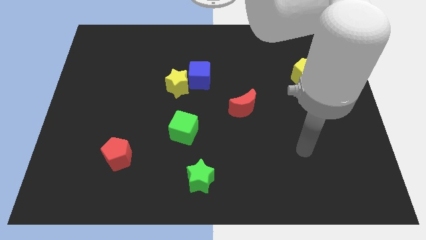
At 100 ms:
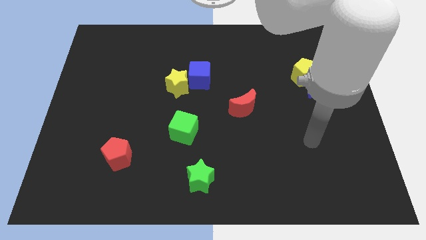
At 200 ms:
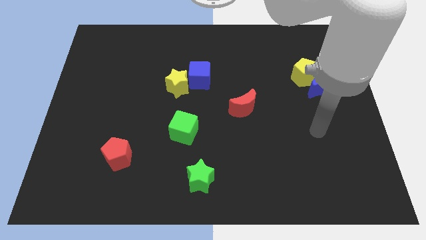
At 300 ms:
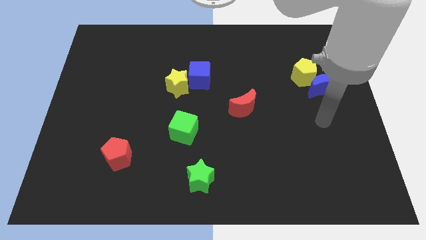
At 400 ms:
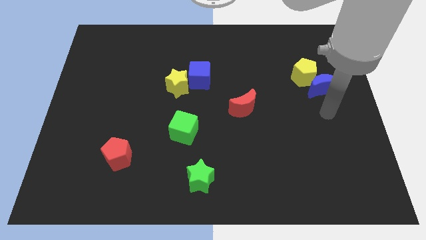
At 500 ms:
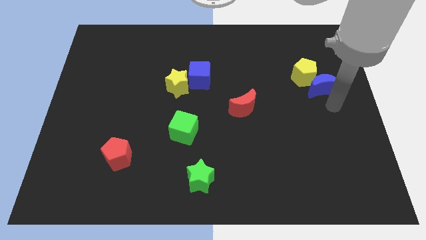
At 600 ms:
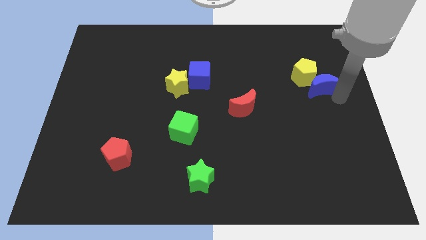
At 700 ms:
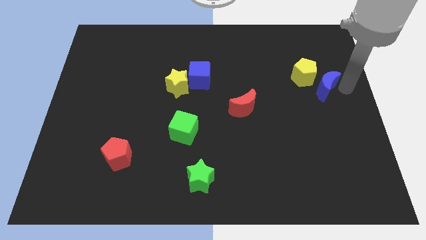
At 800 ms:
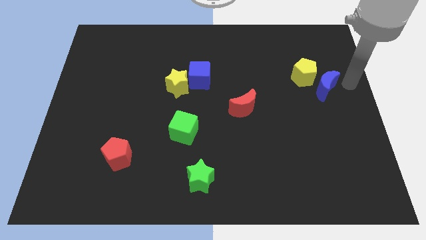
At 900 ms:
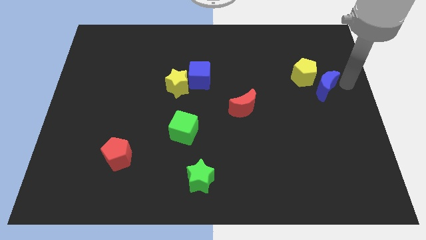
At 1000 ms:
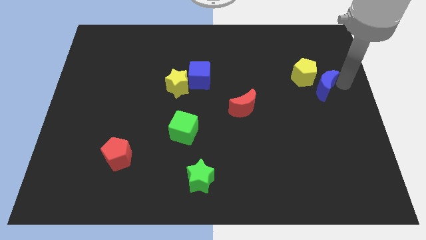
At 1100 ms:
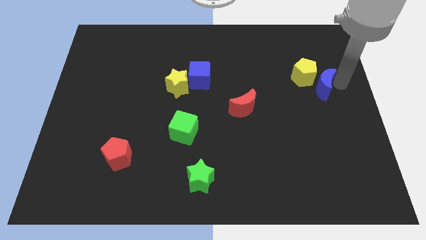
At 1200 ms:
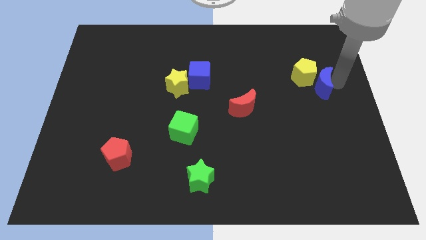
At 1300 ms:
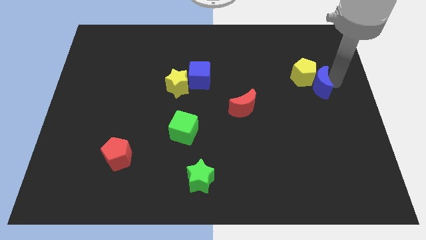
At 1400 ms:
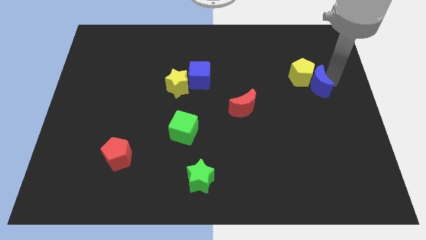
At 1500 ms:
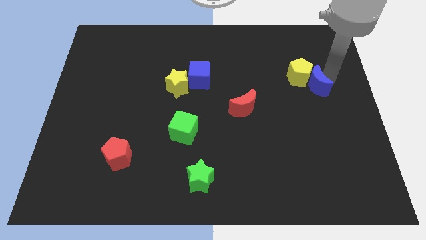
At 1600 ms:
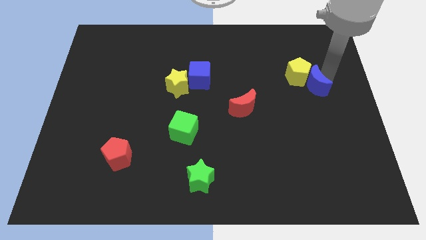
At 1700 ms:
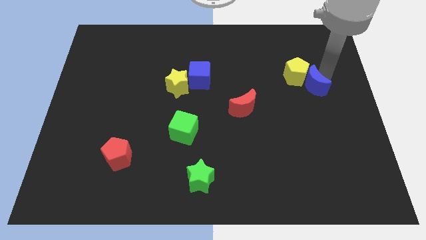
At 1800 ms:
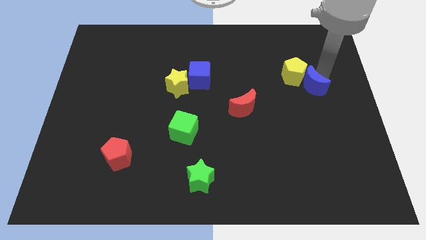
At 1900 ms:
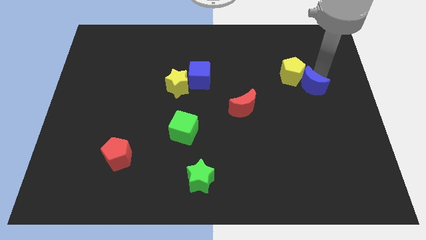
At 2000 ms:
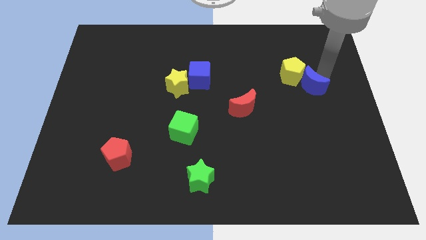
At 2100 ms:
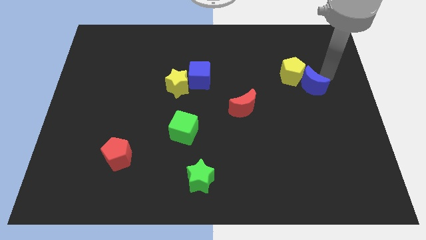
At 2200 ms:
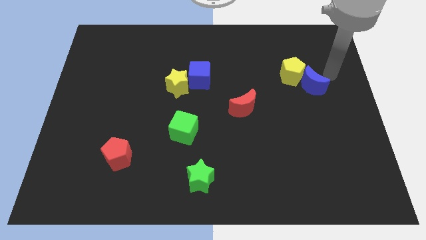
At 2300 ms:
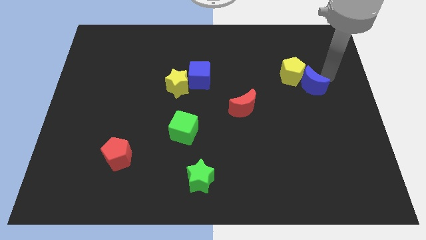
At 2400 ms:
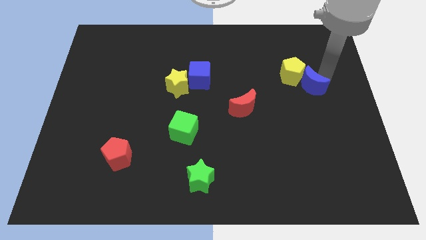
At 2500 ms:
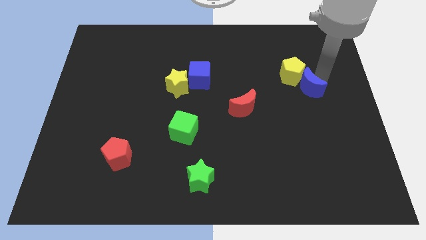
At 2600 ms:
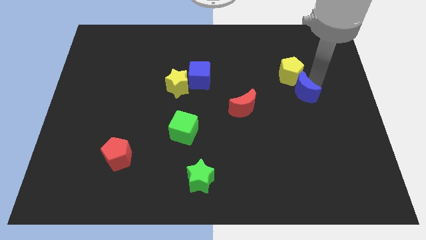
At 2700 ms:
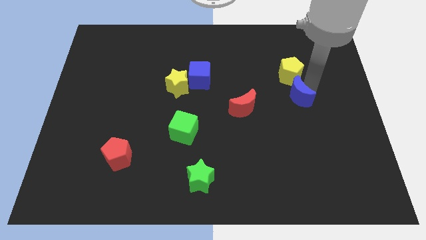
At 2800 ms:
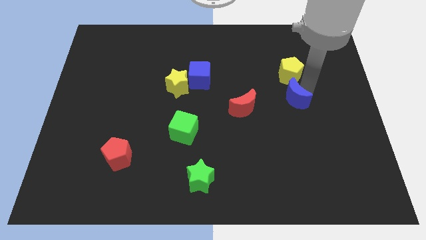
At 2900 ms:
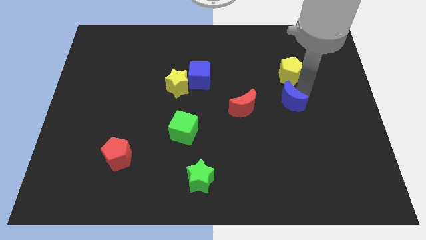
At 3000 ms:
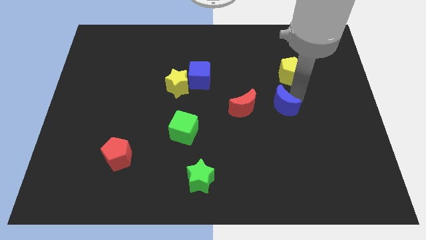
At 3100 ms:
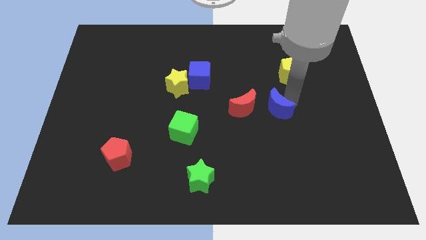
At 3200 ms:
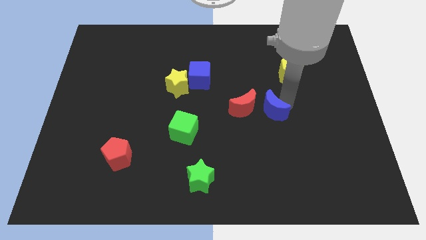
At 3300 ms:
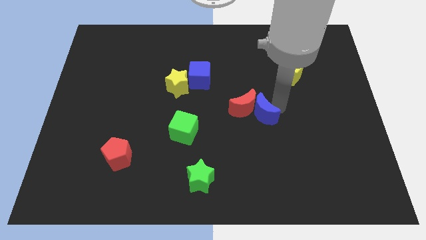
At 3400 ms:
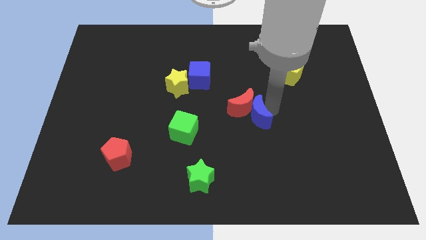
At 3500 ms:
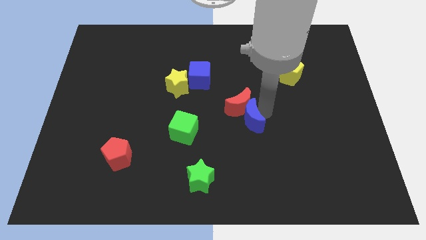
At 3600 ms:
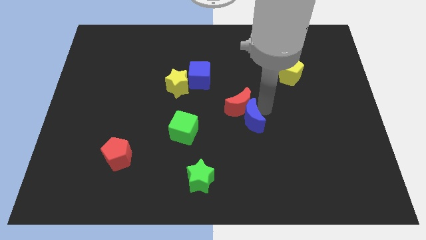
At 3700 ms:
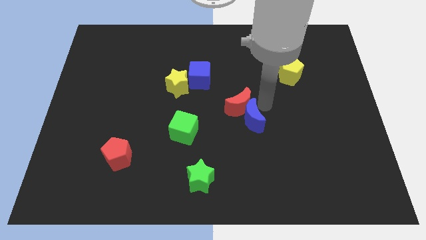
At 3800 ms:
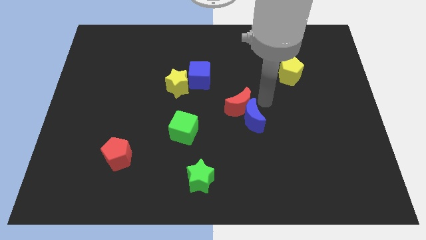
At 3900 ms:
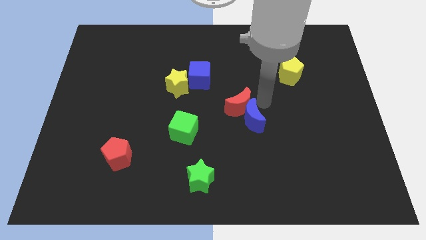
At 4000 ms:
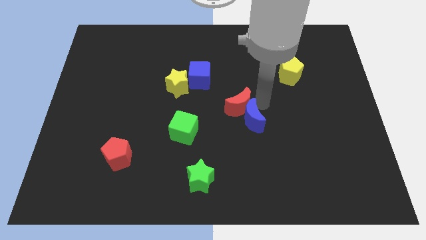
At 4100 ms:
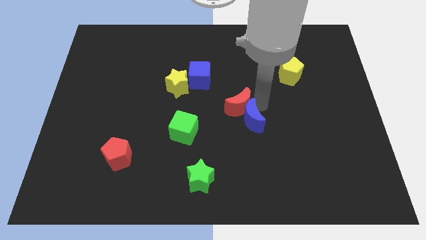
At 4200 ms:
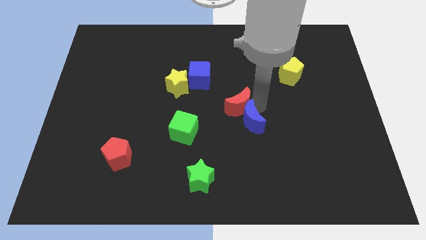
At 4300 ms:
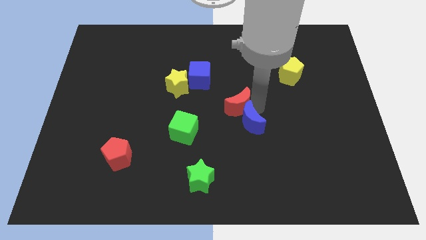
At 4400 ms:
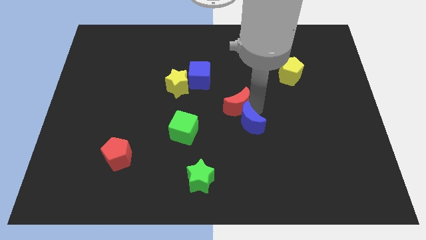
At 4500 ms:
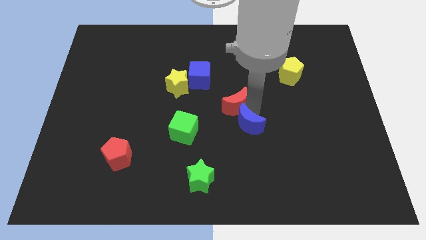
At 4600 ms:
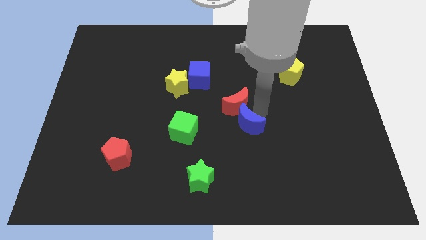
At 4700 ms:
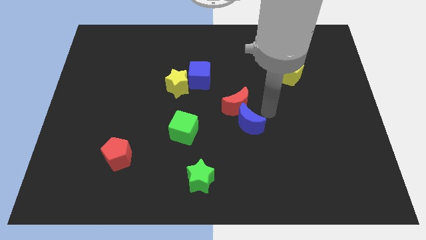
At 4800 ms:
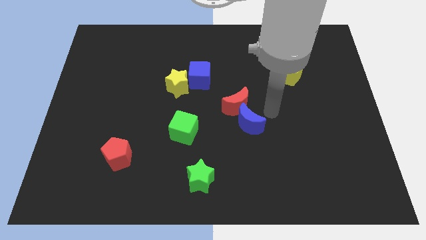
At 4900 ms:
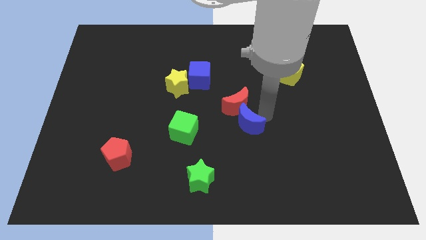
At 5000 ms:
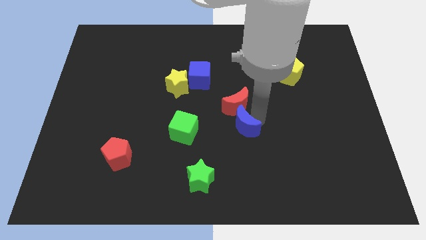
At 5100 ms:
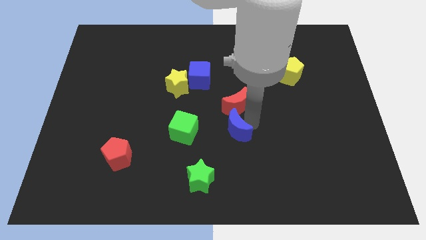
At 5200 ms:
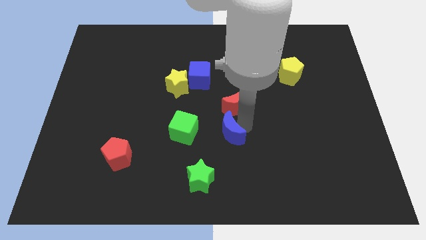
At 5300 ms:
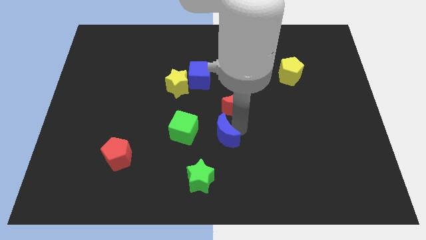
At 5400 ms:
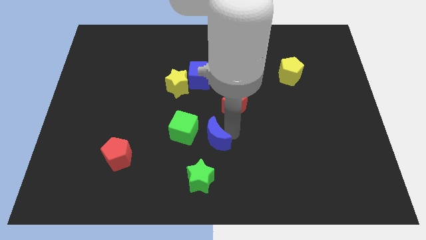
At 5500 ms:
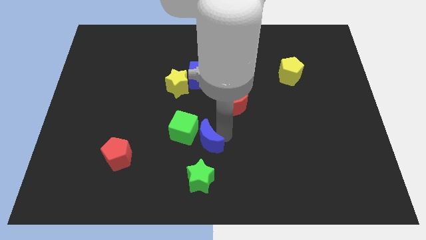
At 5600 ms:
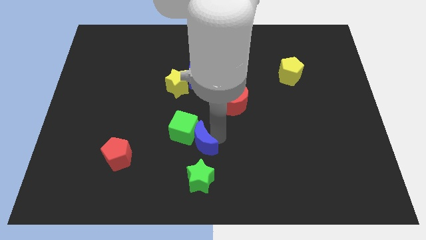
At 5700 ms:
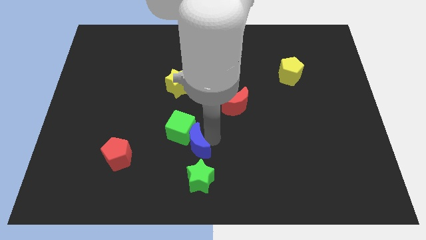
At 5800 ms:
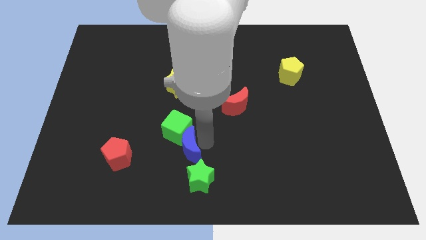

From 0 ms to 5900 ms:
put the blue moon just right of the red pentagon

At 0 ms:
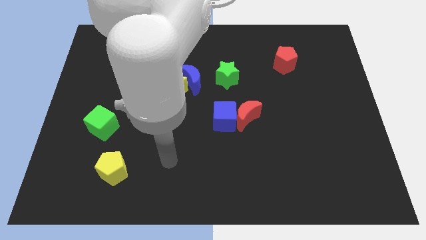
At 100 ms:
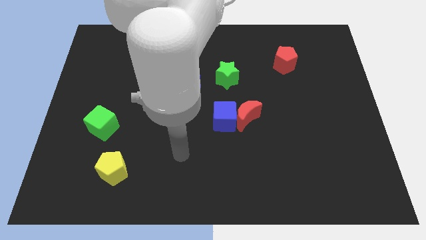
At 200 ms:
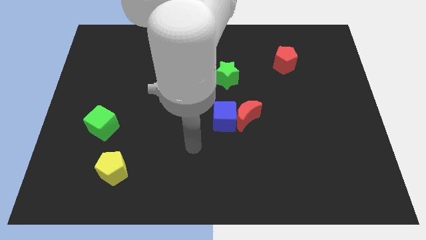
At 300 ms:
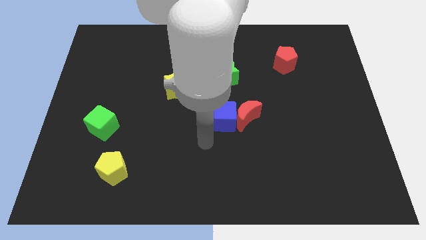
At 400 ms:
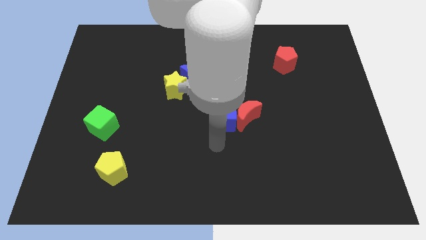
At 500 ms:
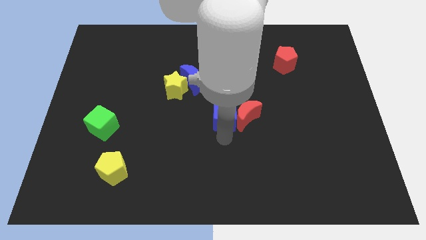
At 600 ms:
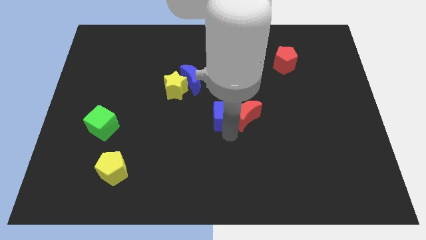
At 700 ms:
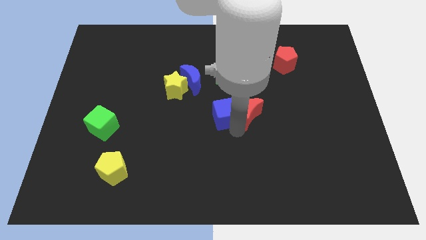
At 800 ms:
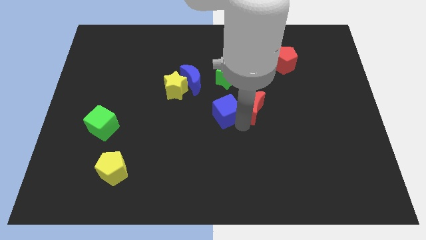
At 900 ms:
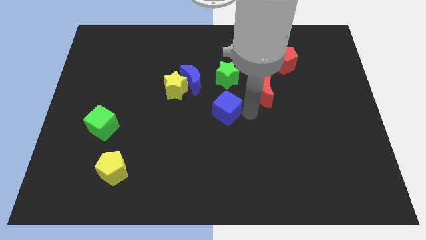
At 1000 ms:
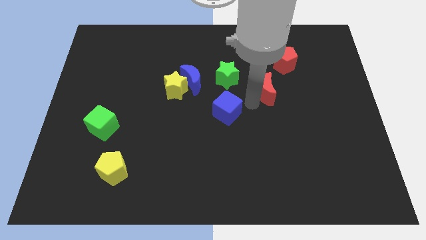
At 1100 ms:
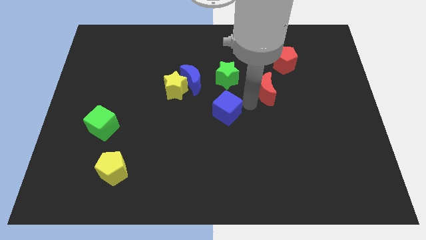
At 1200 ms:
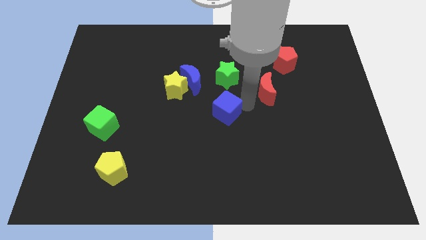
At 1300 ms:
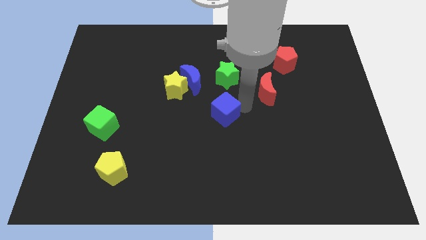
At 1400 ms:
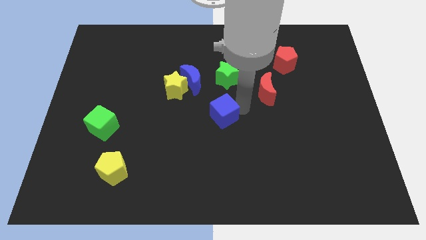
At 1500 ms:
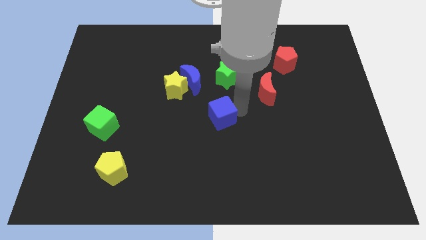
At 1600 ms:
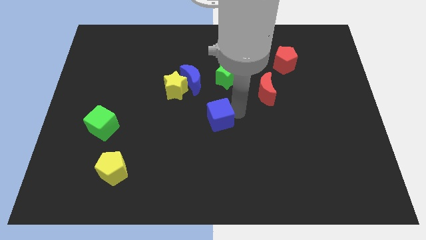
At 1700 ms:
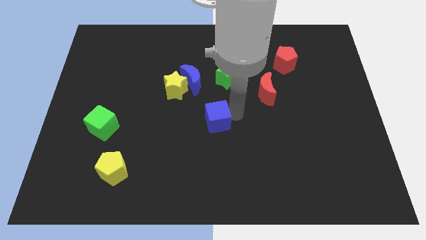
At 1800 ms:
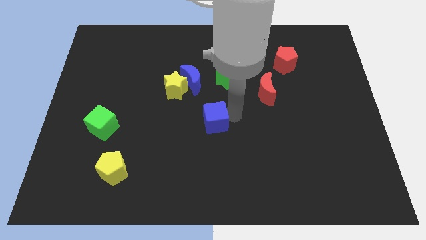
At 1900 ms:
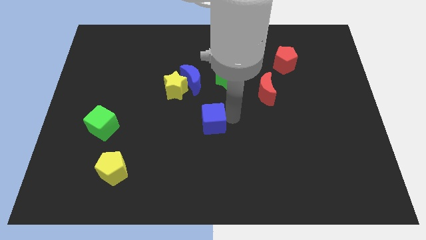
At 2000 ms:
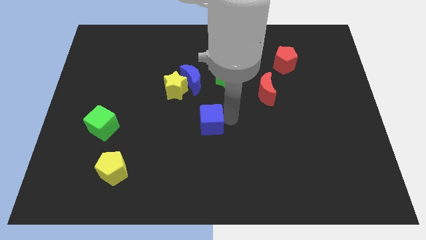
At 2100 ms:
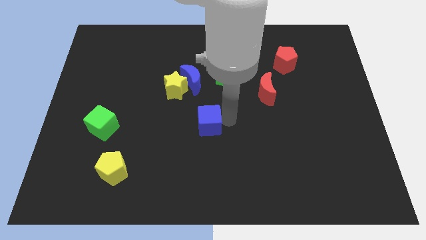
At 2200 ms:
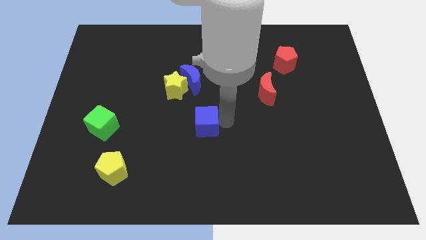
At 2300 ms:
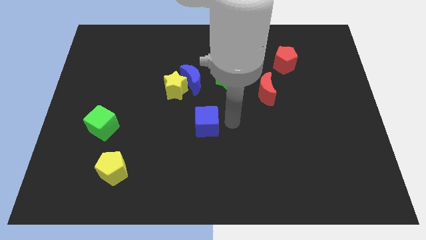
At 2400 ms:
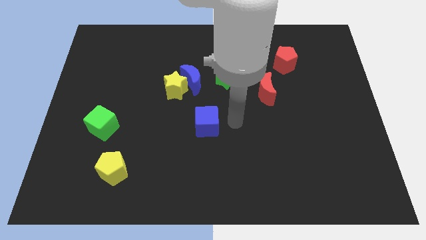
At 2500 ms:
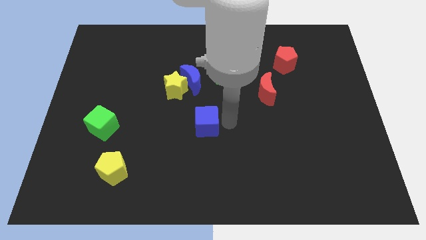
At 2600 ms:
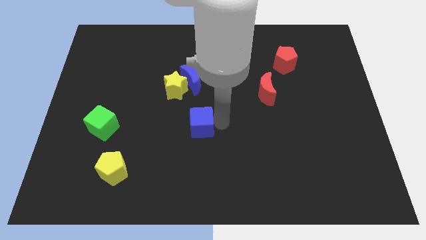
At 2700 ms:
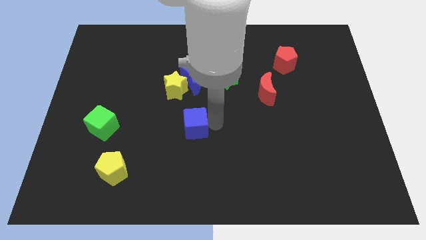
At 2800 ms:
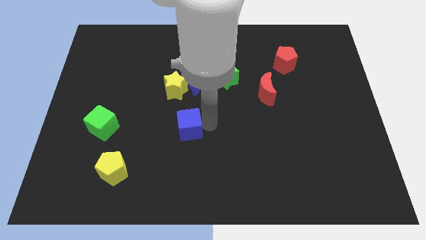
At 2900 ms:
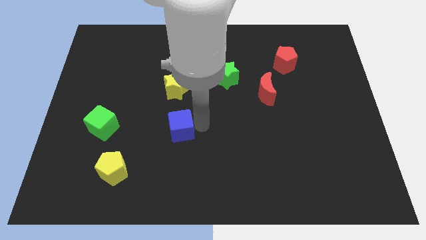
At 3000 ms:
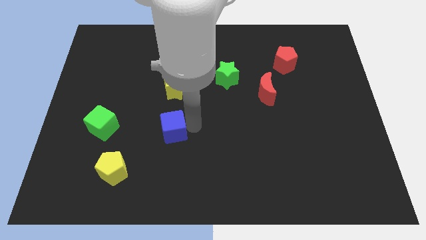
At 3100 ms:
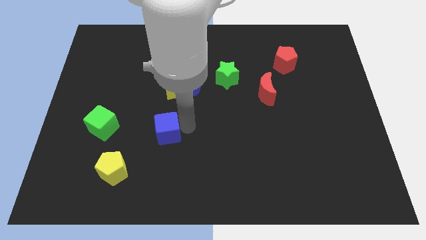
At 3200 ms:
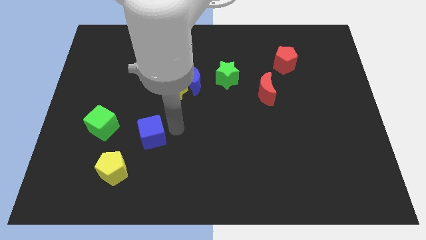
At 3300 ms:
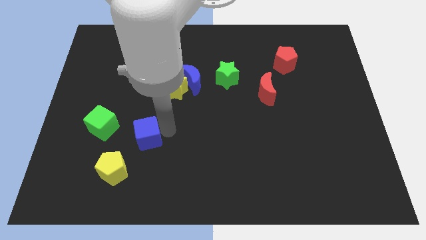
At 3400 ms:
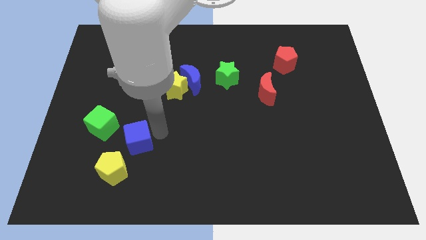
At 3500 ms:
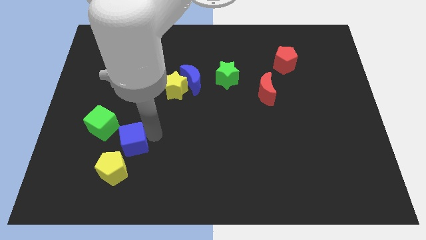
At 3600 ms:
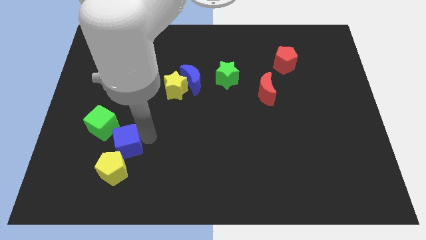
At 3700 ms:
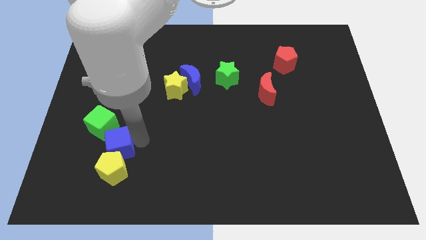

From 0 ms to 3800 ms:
push the blue cube to the top left of the yellow pentagon
